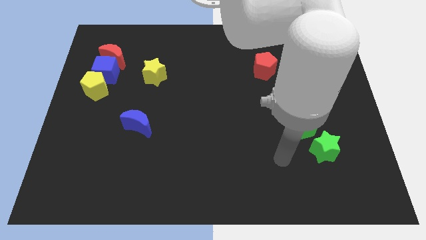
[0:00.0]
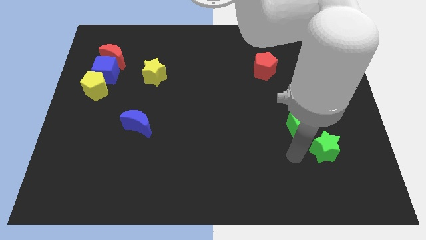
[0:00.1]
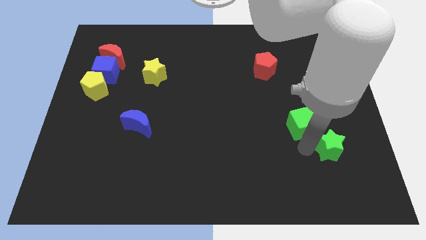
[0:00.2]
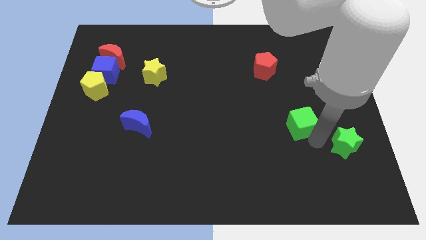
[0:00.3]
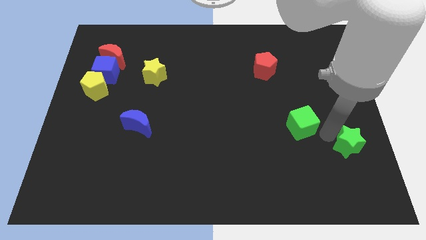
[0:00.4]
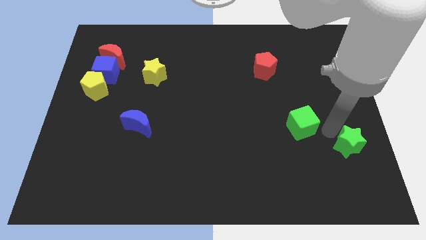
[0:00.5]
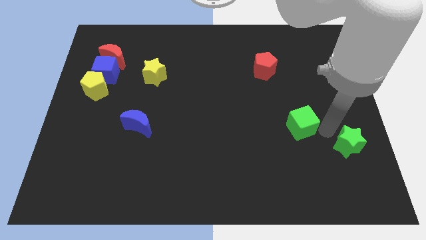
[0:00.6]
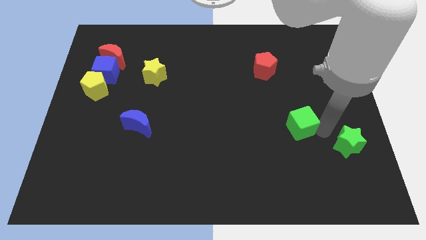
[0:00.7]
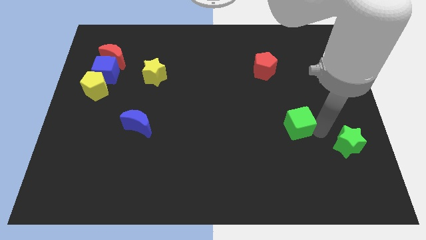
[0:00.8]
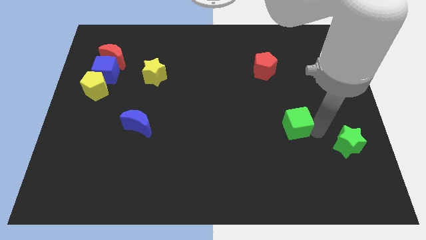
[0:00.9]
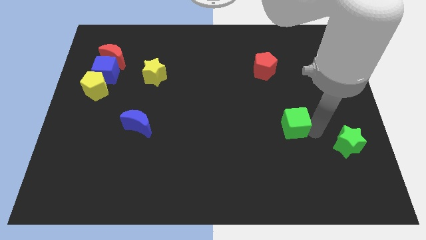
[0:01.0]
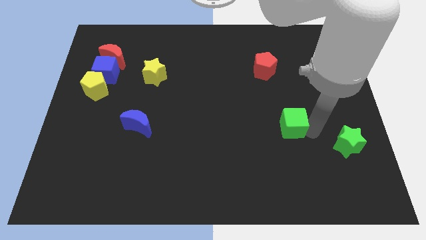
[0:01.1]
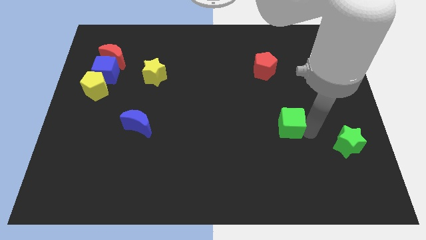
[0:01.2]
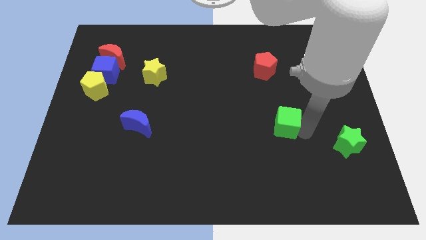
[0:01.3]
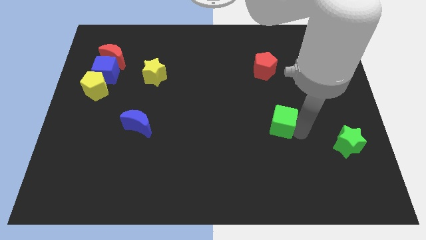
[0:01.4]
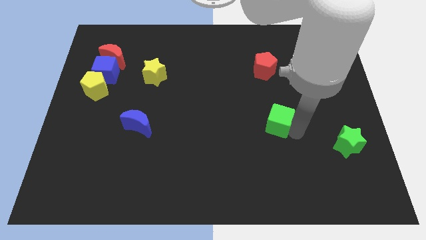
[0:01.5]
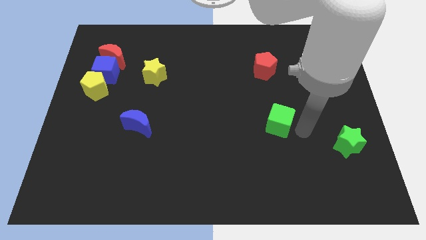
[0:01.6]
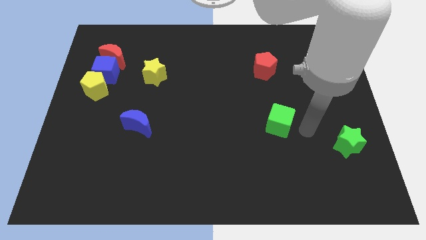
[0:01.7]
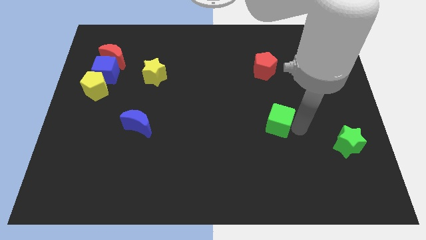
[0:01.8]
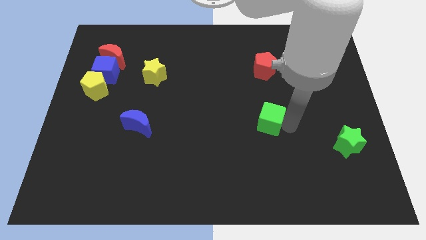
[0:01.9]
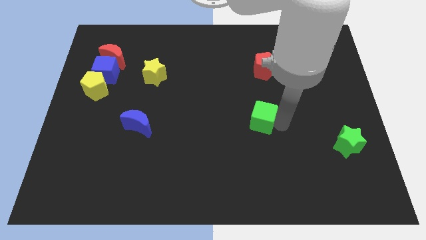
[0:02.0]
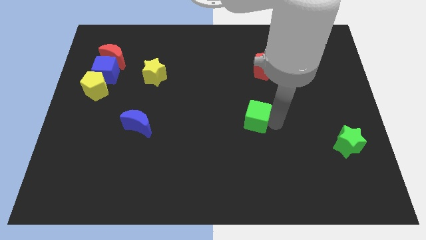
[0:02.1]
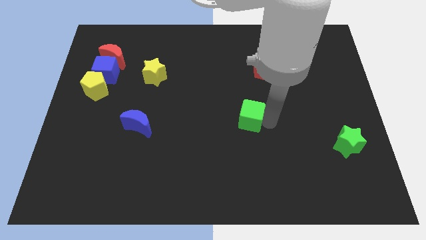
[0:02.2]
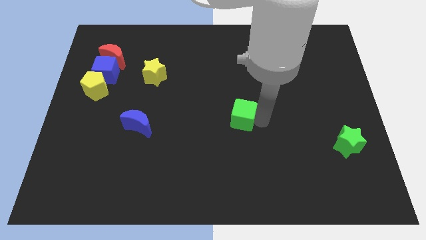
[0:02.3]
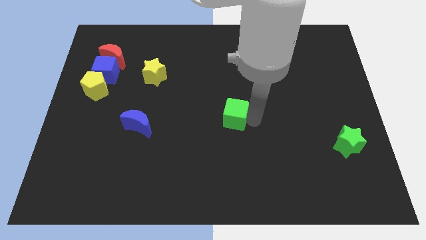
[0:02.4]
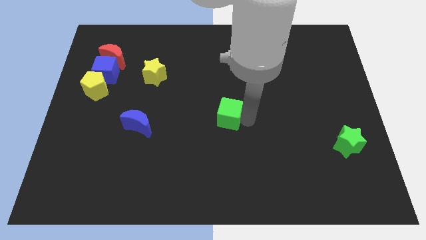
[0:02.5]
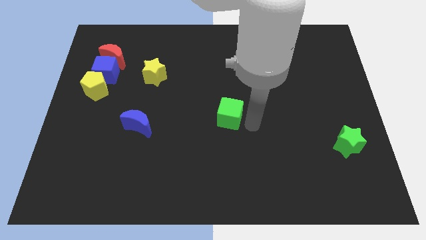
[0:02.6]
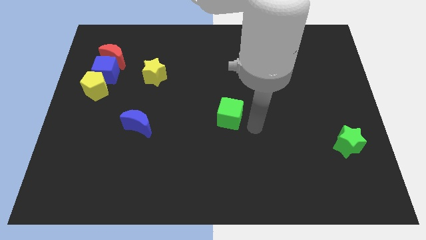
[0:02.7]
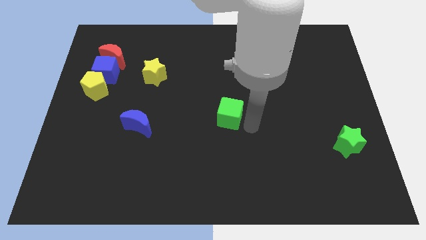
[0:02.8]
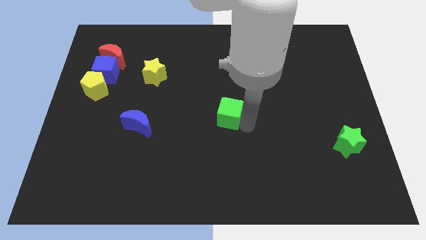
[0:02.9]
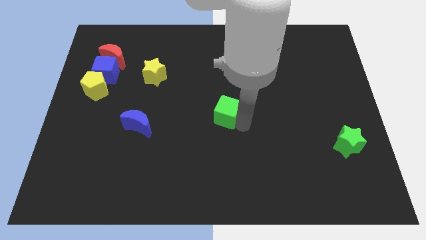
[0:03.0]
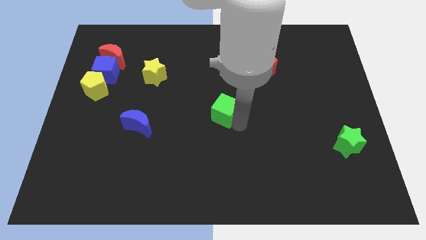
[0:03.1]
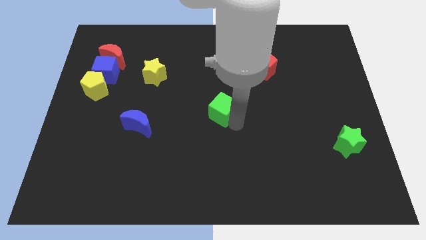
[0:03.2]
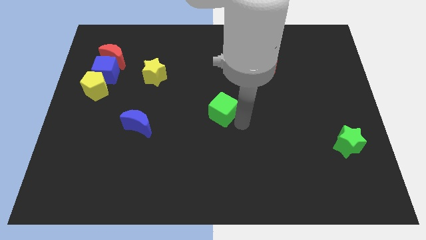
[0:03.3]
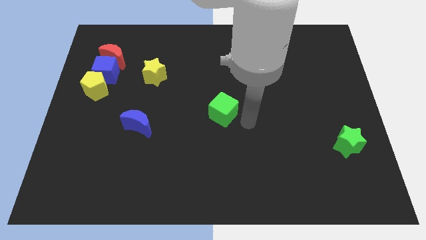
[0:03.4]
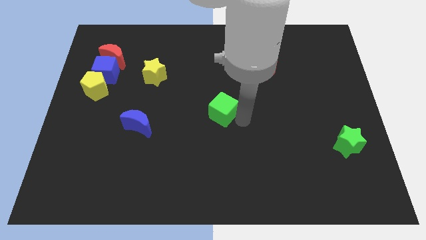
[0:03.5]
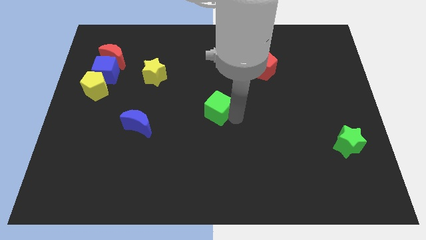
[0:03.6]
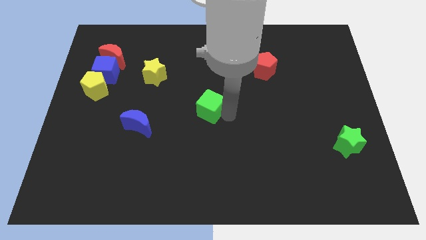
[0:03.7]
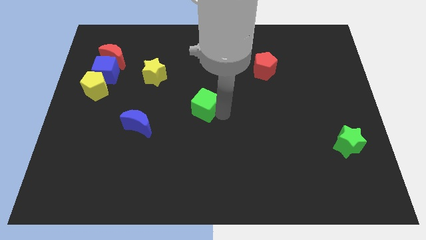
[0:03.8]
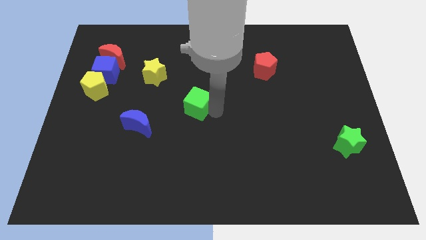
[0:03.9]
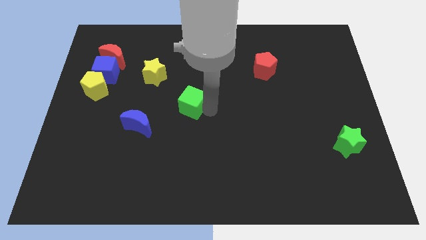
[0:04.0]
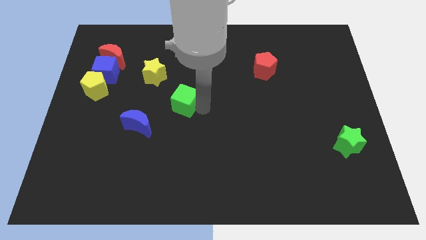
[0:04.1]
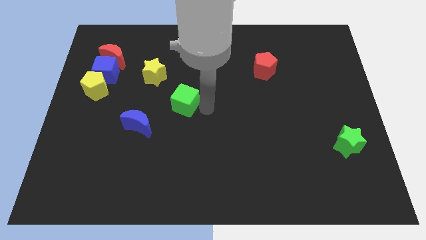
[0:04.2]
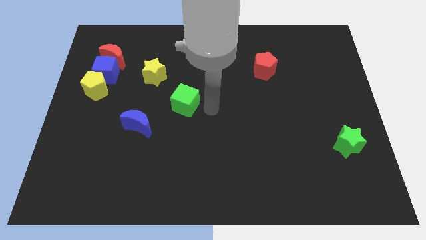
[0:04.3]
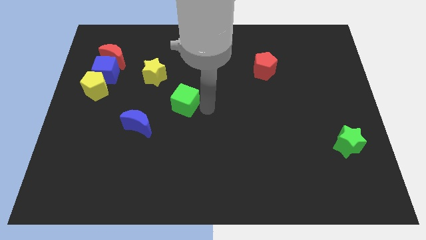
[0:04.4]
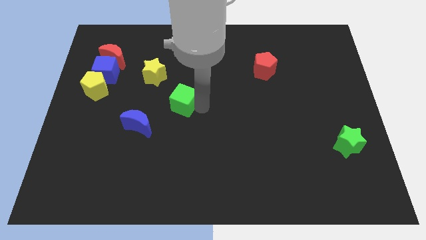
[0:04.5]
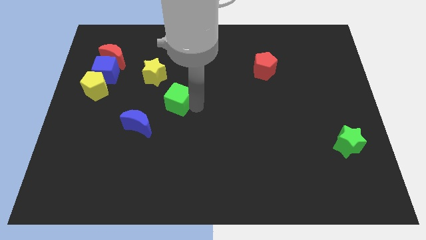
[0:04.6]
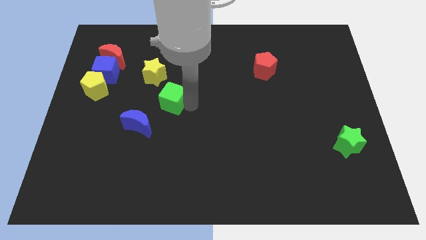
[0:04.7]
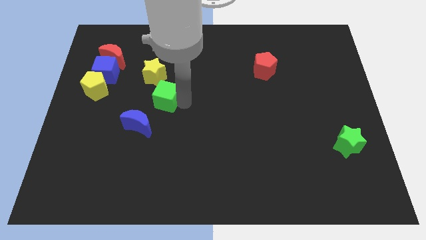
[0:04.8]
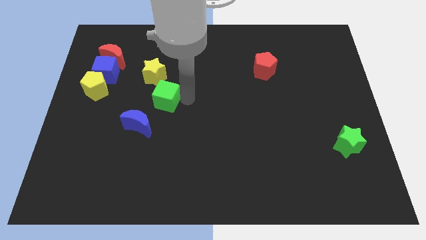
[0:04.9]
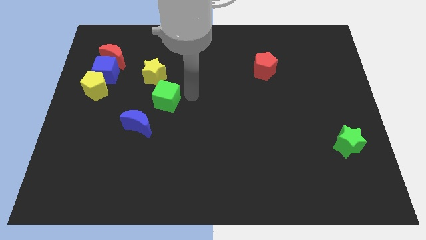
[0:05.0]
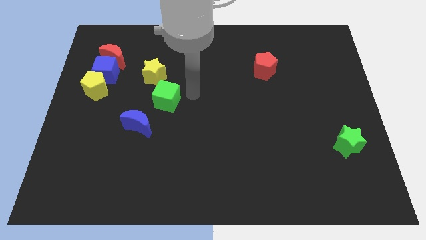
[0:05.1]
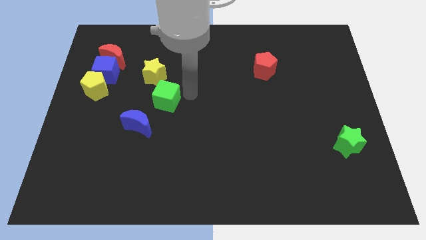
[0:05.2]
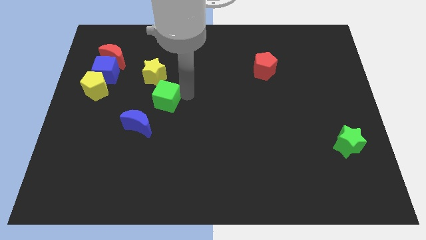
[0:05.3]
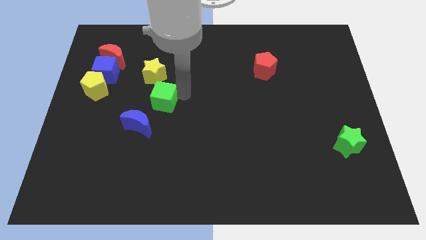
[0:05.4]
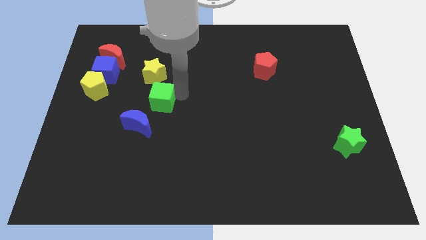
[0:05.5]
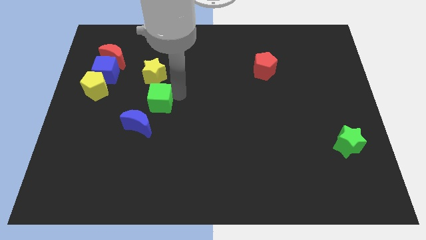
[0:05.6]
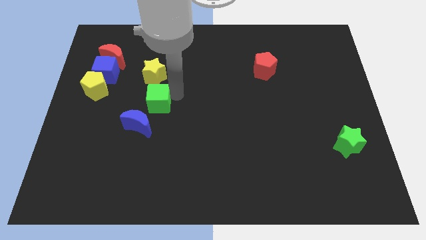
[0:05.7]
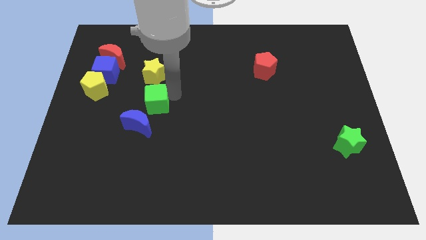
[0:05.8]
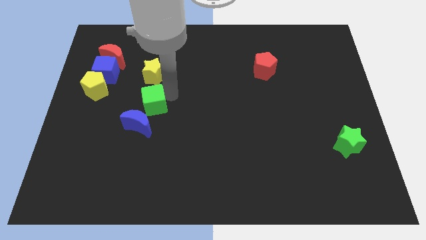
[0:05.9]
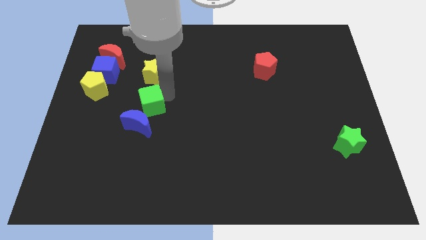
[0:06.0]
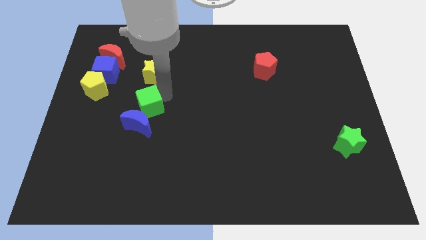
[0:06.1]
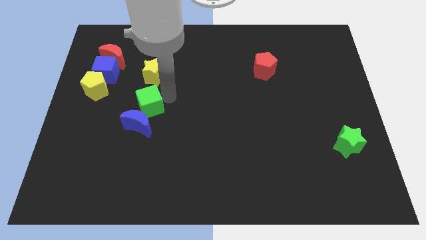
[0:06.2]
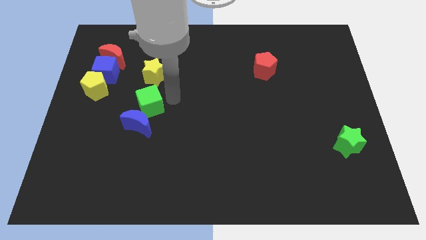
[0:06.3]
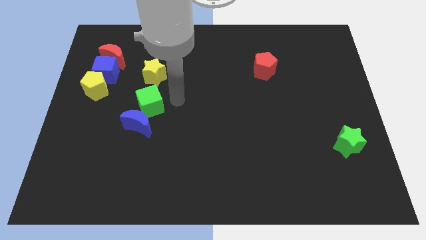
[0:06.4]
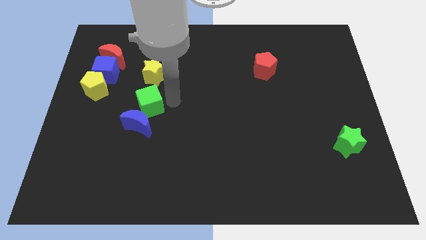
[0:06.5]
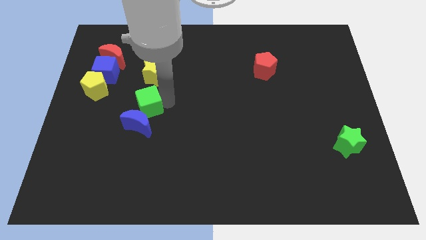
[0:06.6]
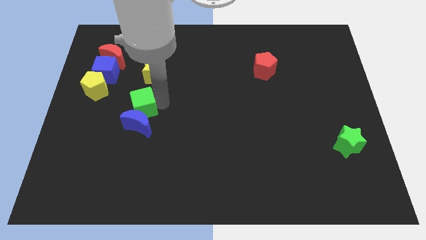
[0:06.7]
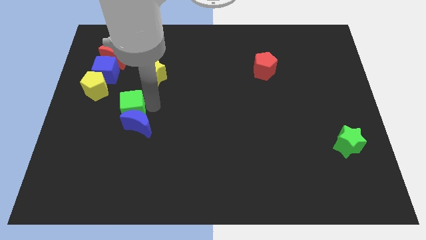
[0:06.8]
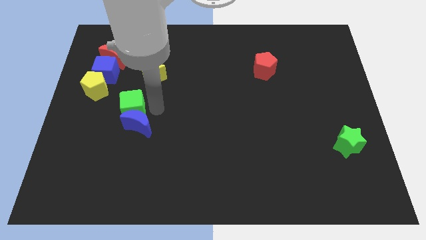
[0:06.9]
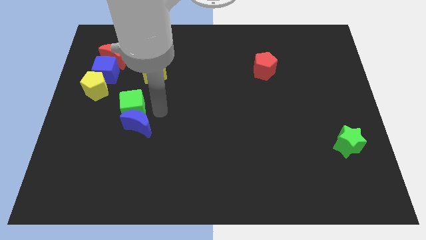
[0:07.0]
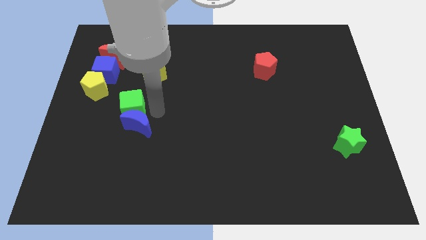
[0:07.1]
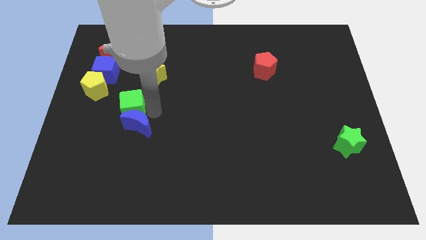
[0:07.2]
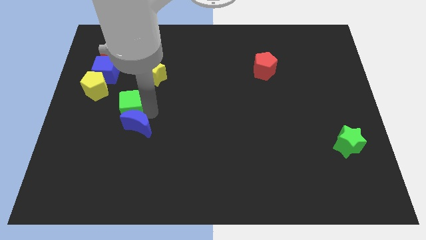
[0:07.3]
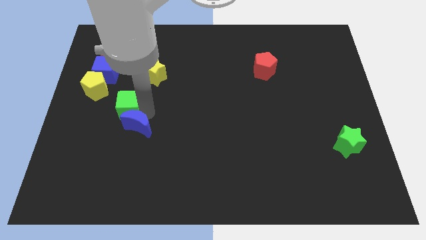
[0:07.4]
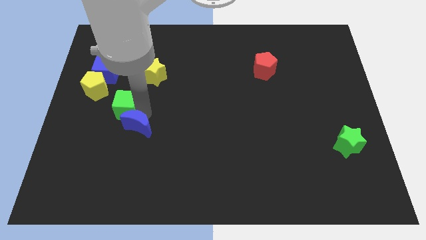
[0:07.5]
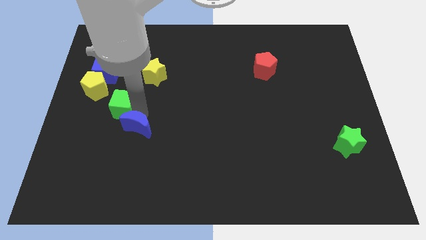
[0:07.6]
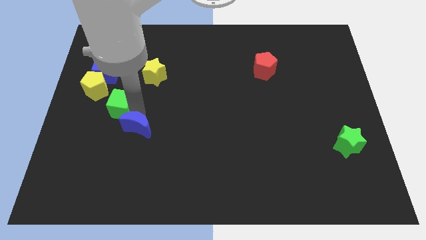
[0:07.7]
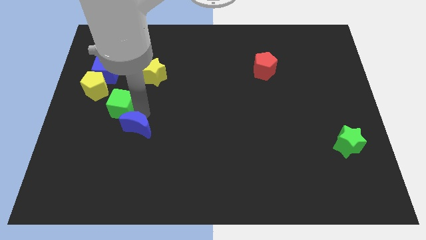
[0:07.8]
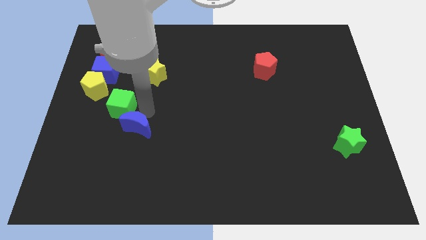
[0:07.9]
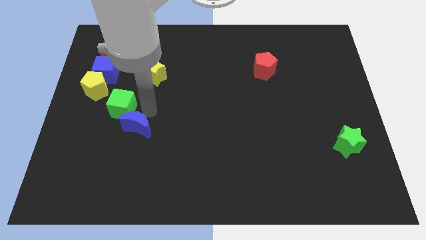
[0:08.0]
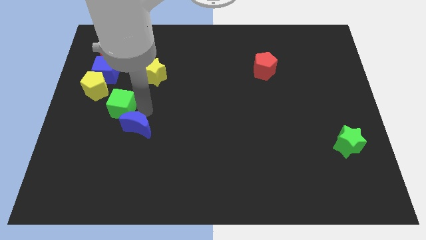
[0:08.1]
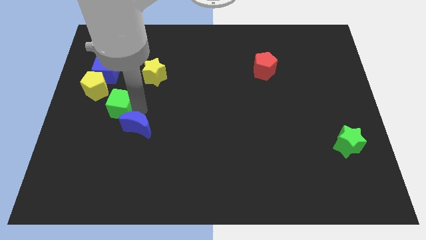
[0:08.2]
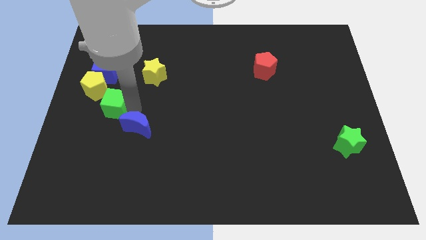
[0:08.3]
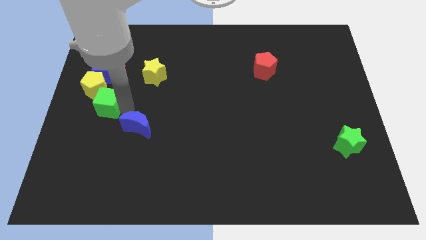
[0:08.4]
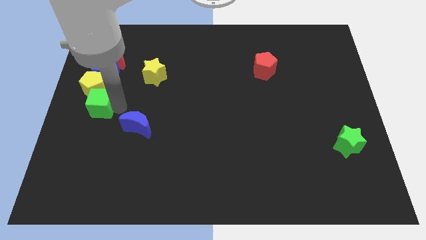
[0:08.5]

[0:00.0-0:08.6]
move the green cube to the left side
